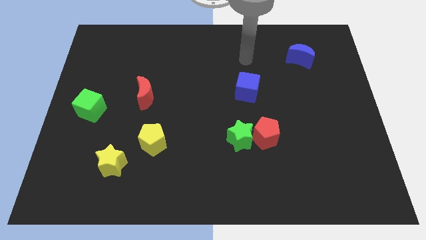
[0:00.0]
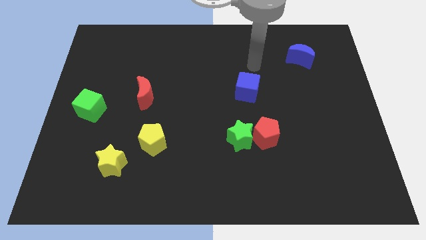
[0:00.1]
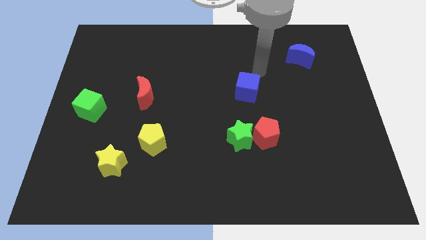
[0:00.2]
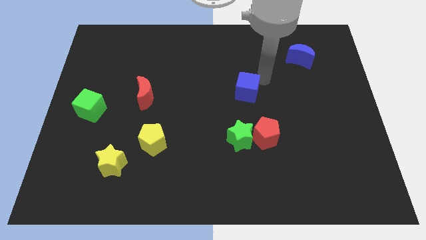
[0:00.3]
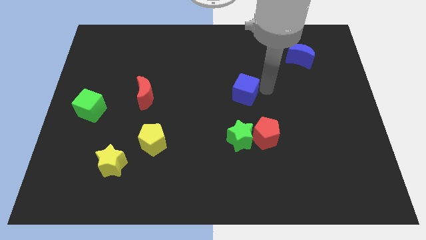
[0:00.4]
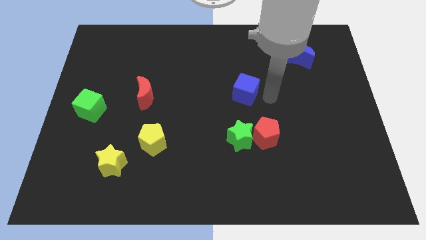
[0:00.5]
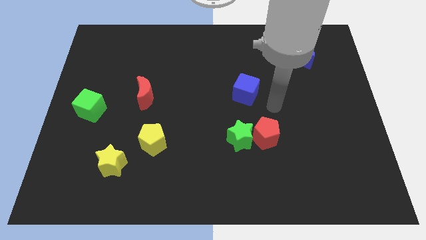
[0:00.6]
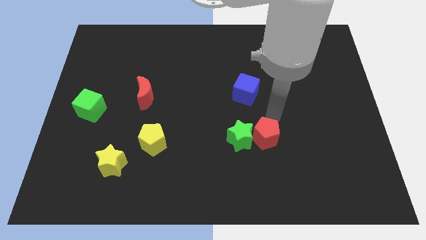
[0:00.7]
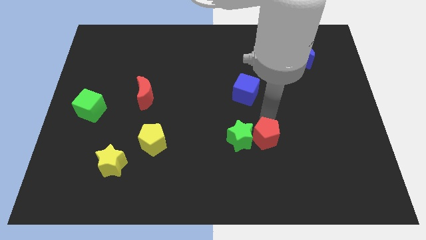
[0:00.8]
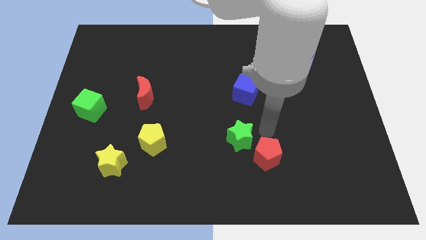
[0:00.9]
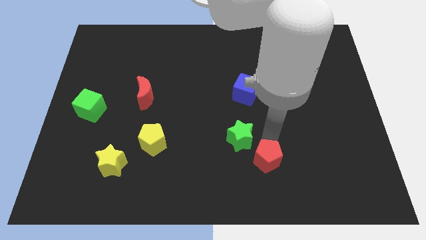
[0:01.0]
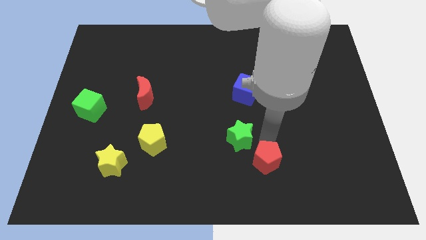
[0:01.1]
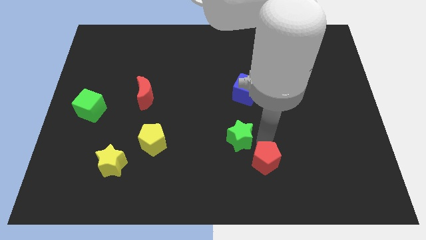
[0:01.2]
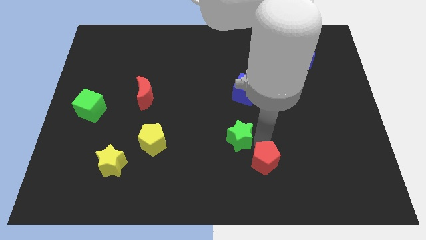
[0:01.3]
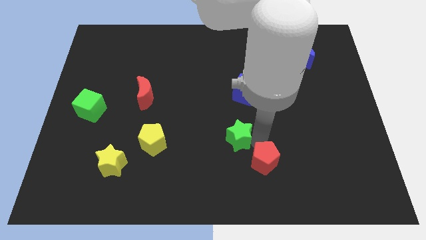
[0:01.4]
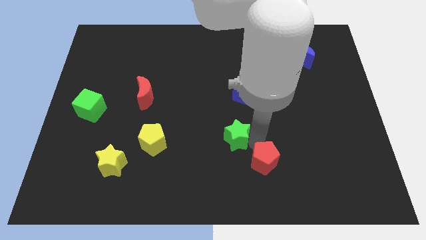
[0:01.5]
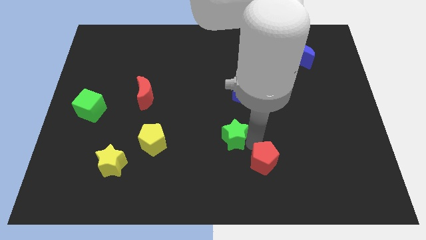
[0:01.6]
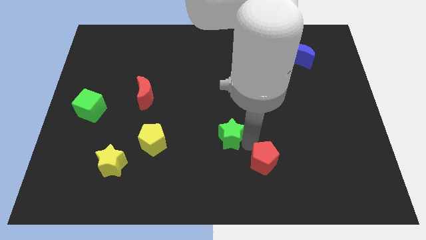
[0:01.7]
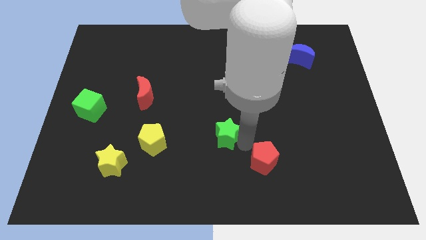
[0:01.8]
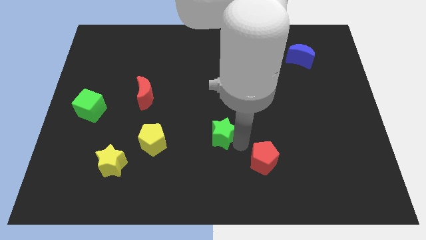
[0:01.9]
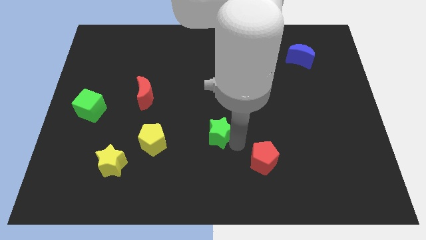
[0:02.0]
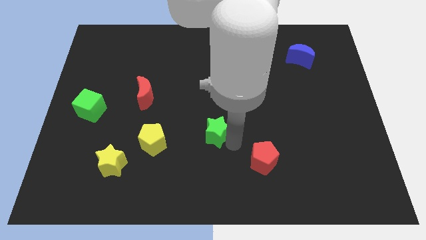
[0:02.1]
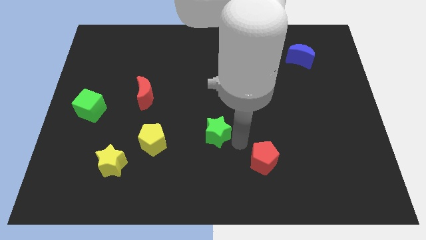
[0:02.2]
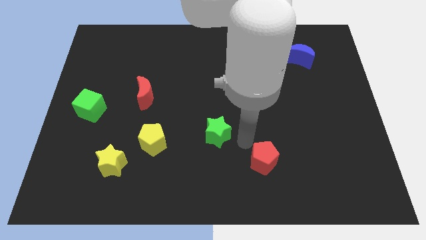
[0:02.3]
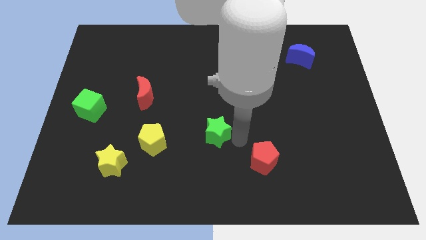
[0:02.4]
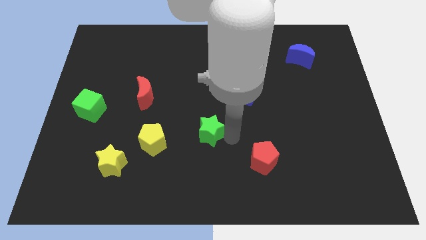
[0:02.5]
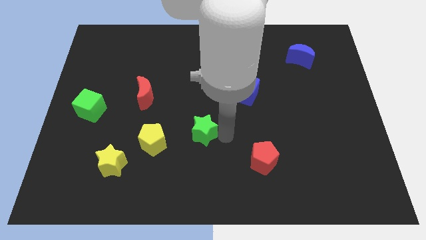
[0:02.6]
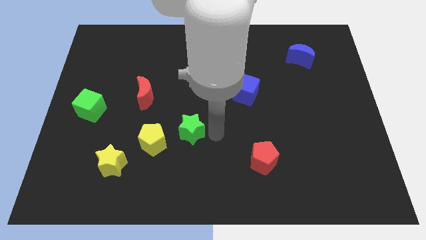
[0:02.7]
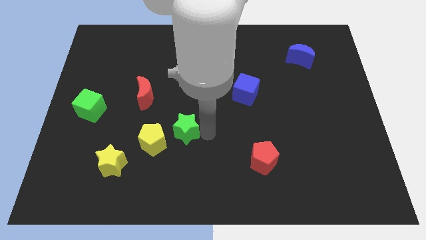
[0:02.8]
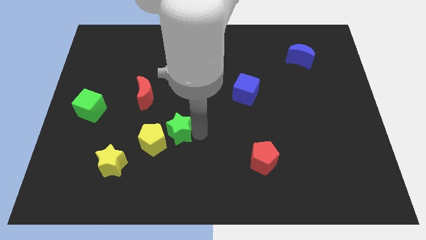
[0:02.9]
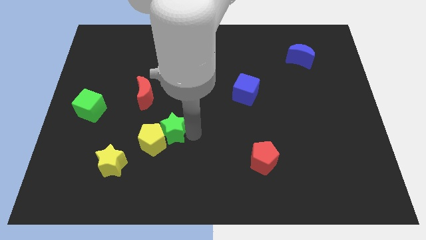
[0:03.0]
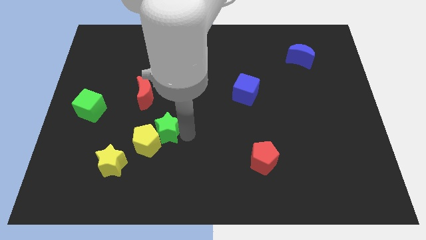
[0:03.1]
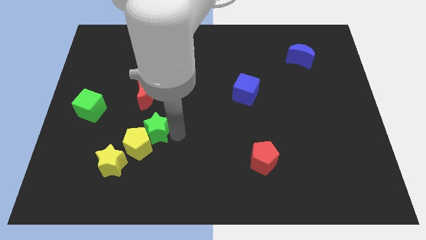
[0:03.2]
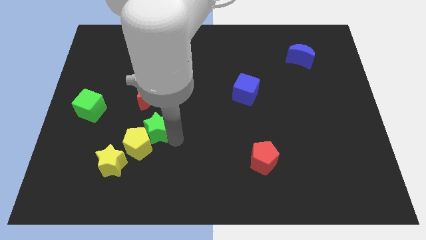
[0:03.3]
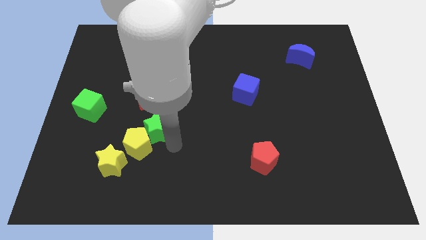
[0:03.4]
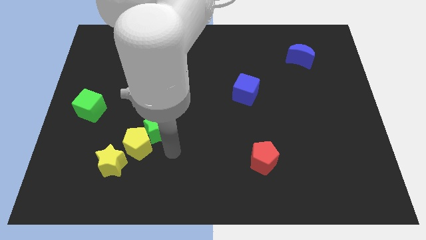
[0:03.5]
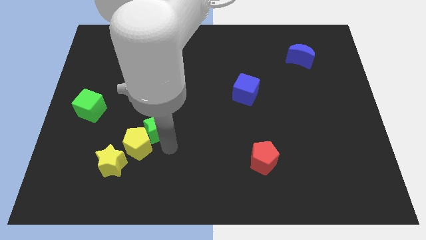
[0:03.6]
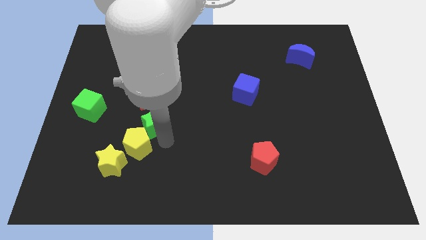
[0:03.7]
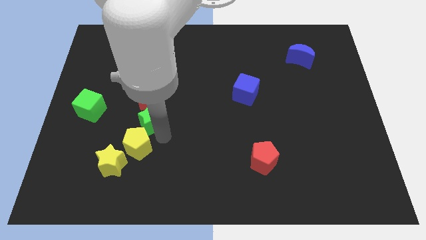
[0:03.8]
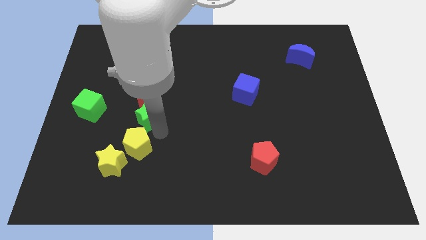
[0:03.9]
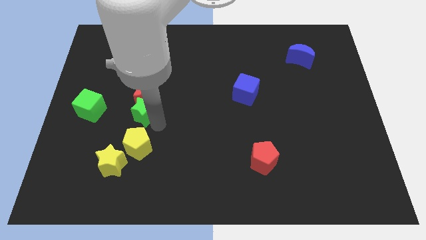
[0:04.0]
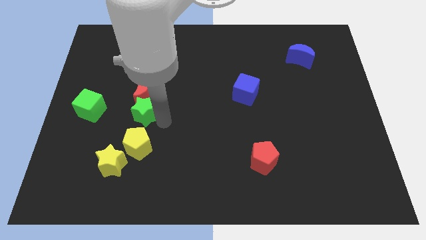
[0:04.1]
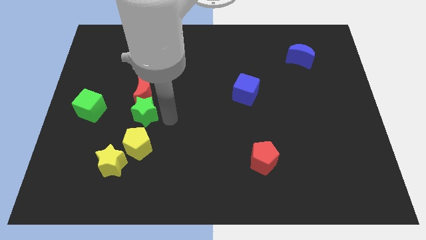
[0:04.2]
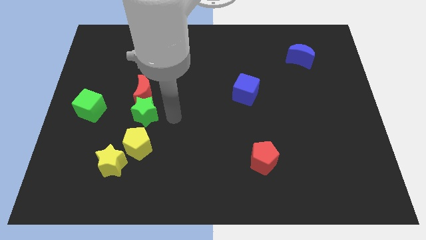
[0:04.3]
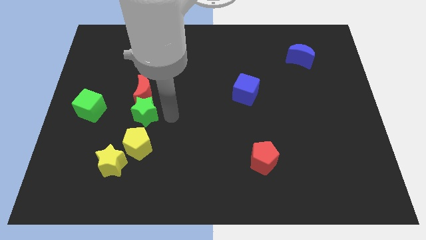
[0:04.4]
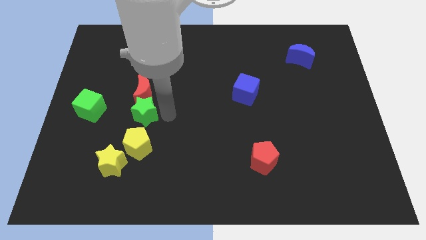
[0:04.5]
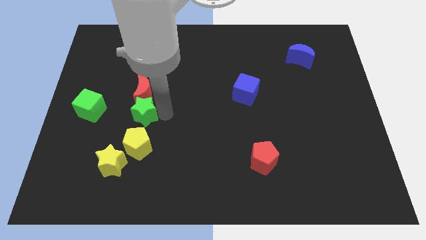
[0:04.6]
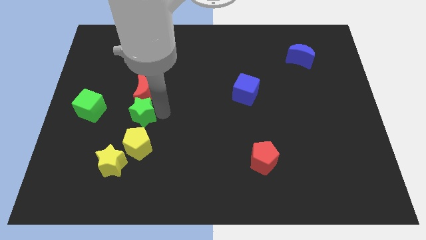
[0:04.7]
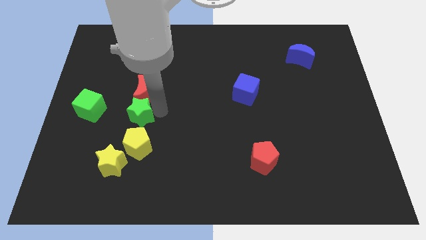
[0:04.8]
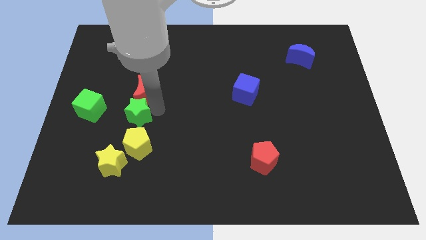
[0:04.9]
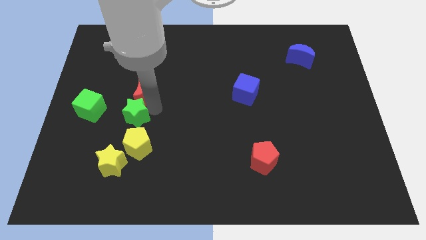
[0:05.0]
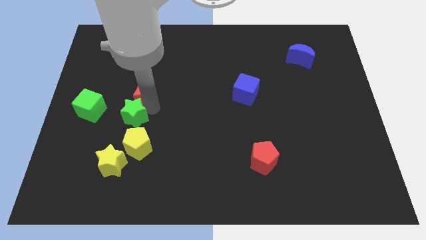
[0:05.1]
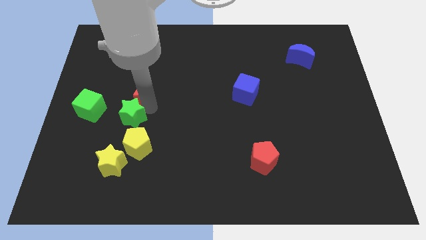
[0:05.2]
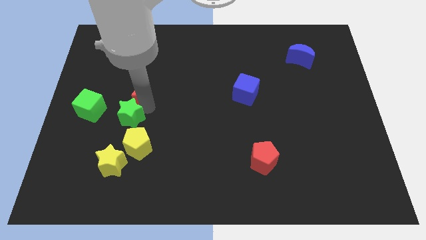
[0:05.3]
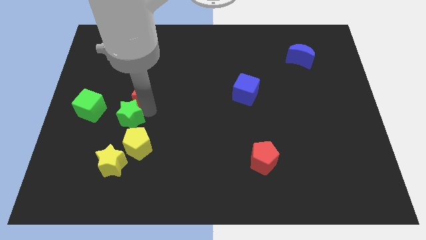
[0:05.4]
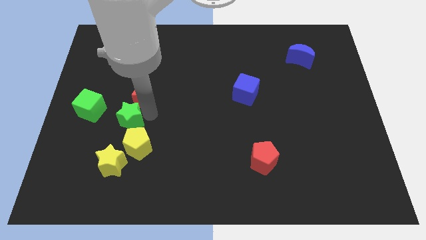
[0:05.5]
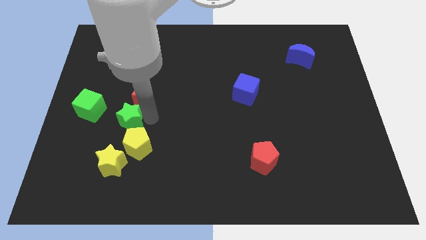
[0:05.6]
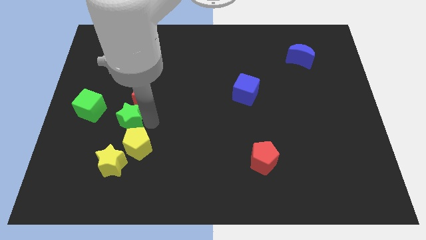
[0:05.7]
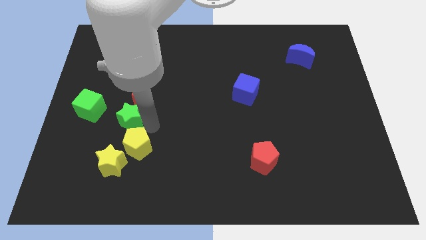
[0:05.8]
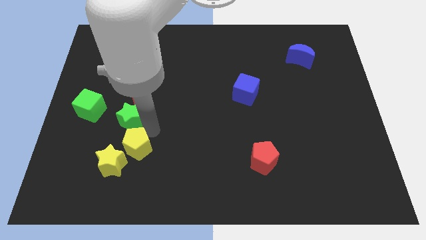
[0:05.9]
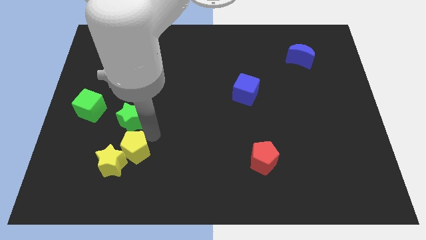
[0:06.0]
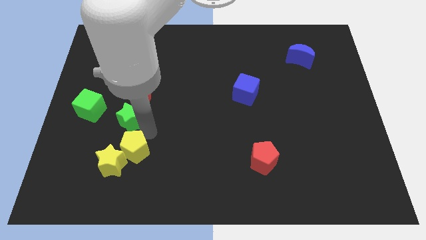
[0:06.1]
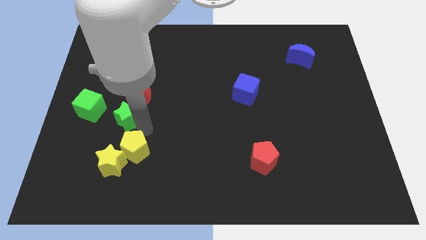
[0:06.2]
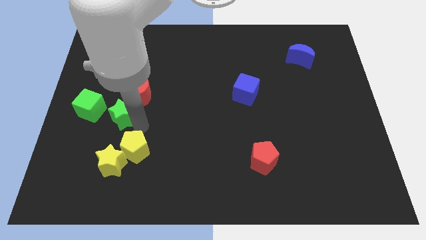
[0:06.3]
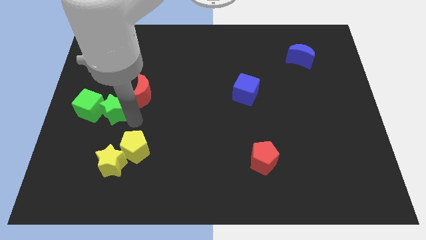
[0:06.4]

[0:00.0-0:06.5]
push the green star next to the green cube

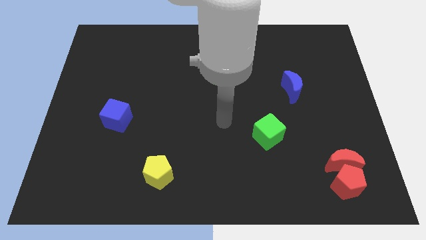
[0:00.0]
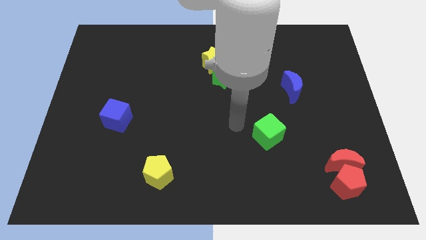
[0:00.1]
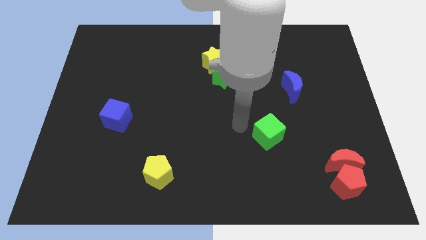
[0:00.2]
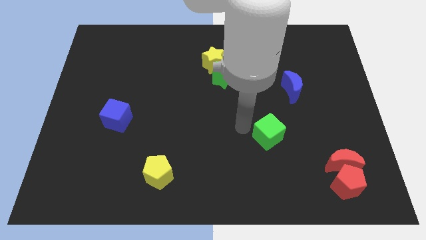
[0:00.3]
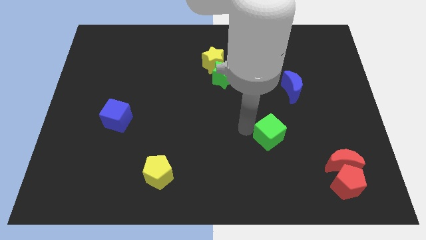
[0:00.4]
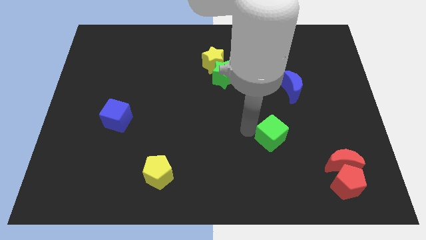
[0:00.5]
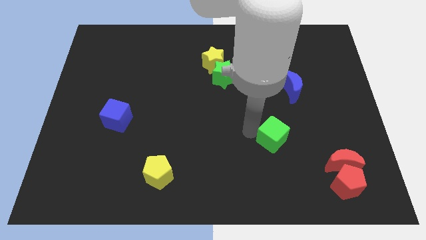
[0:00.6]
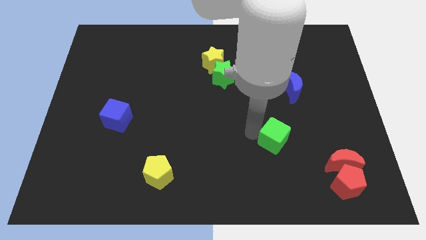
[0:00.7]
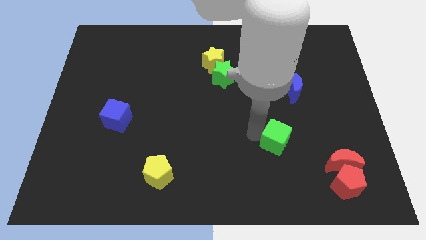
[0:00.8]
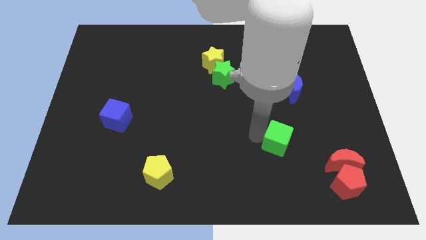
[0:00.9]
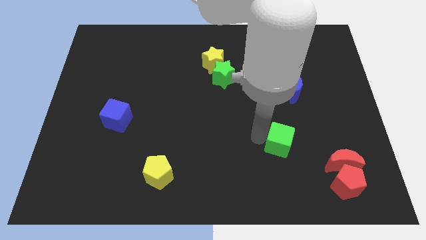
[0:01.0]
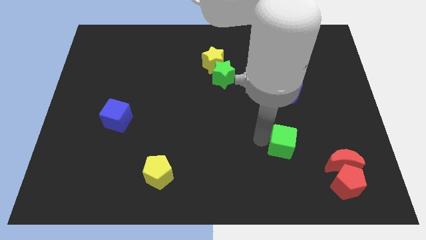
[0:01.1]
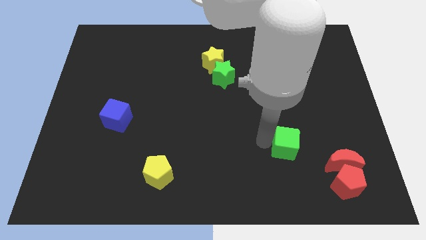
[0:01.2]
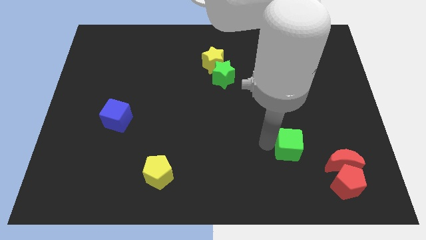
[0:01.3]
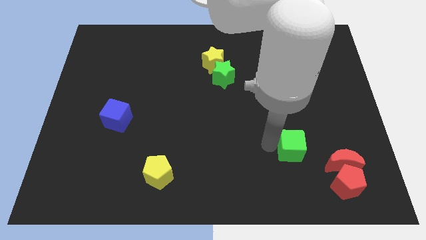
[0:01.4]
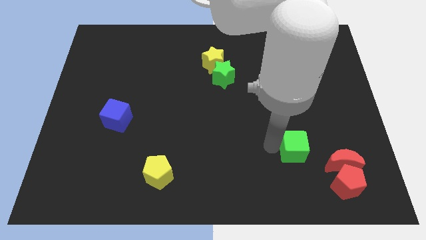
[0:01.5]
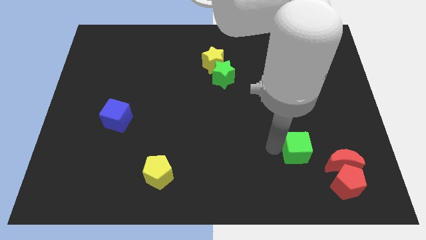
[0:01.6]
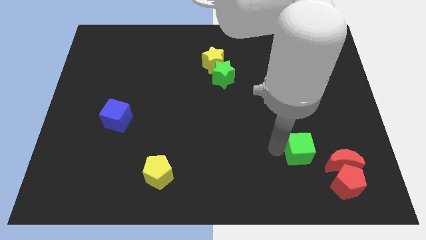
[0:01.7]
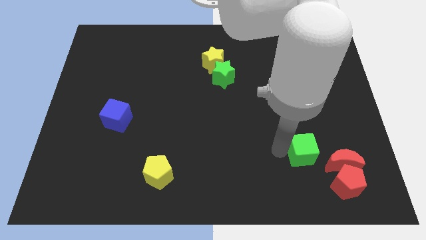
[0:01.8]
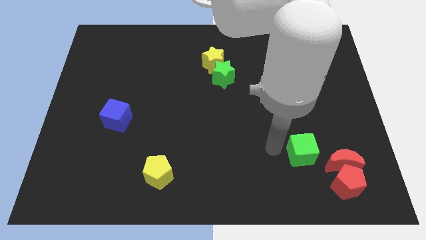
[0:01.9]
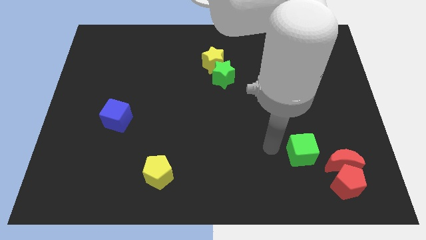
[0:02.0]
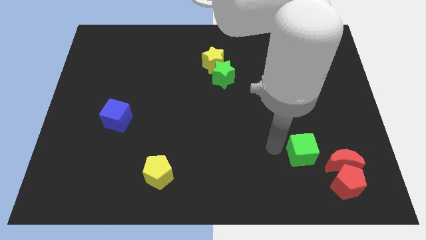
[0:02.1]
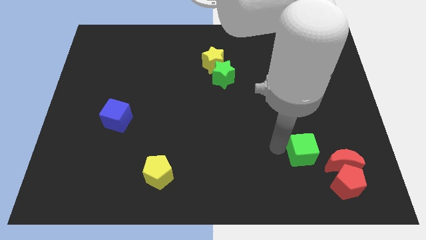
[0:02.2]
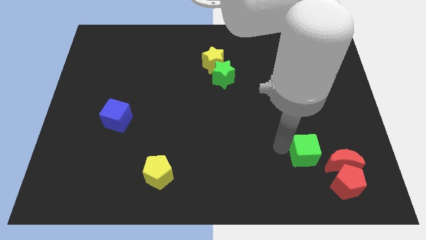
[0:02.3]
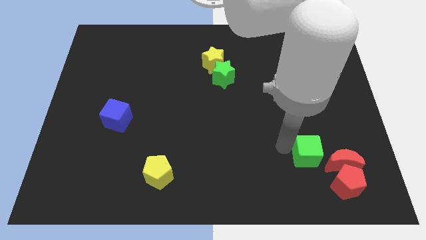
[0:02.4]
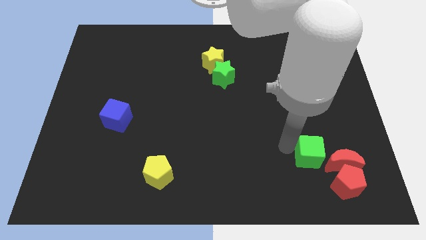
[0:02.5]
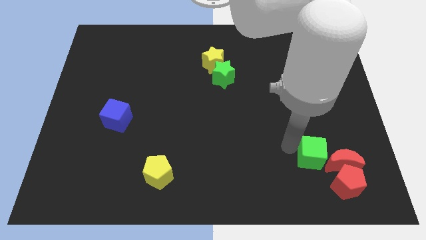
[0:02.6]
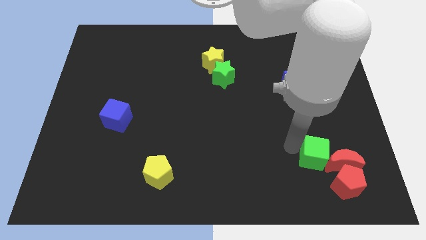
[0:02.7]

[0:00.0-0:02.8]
slide the green cube towards the red moon
